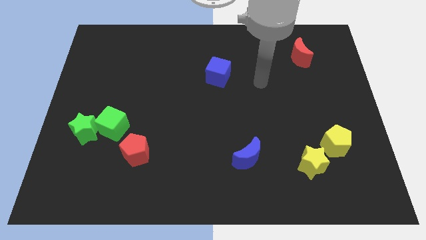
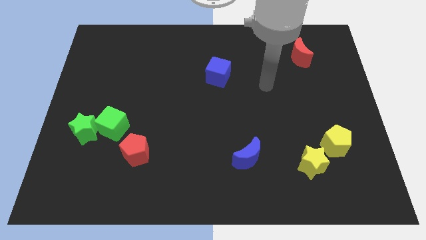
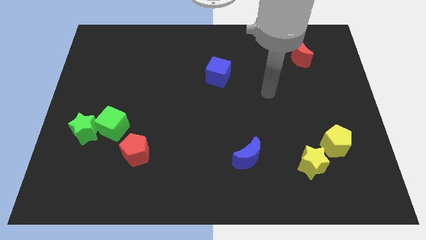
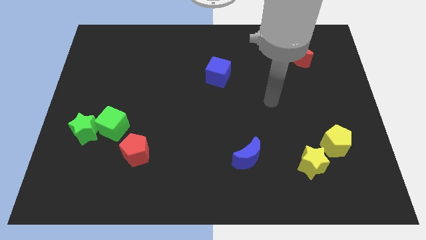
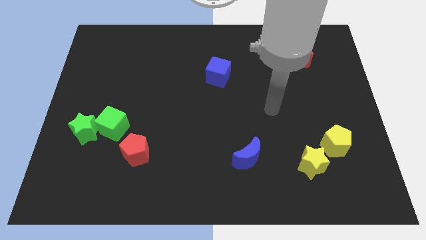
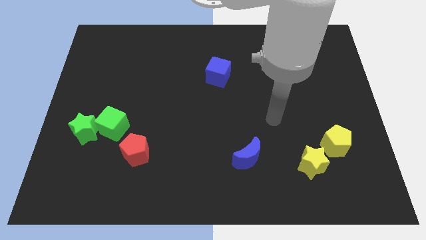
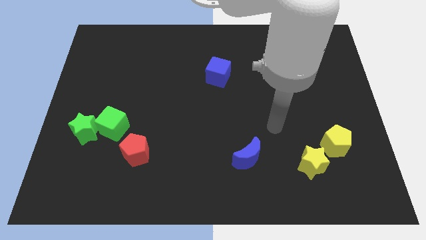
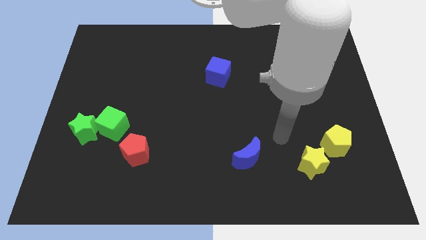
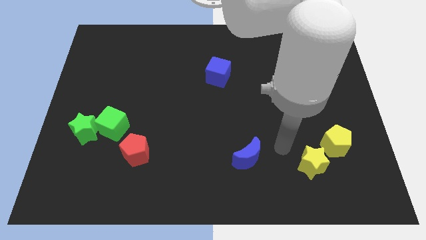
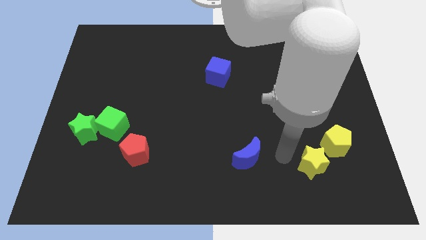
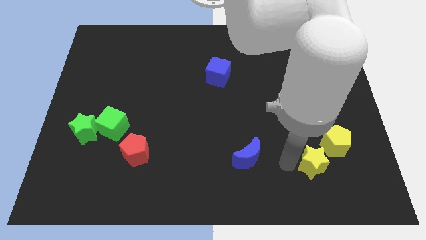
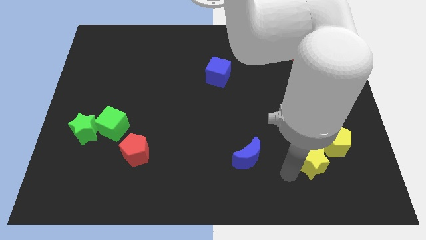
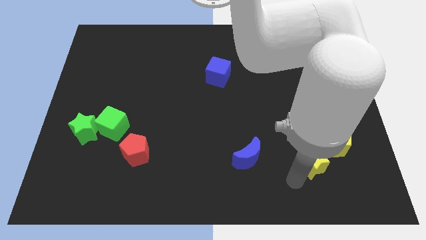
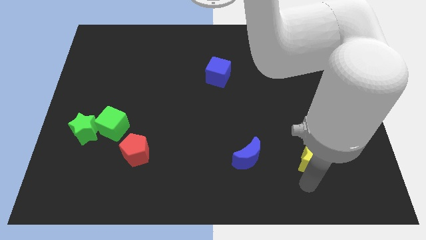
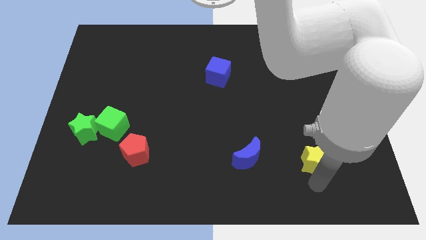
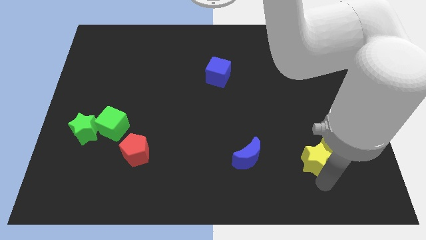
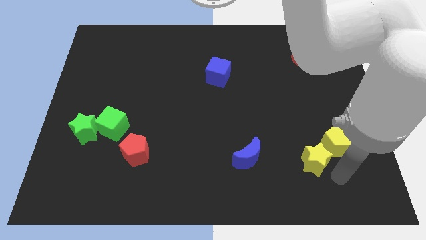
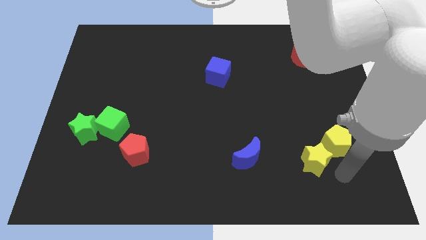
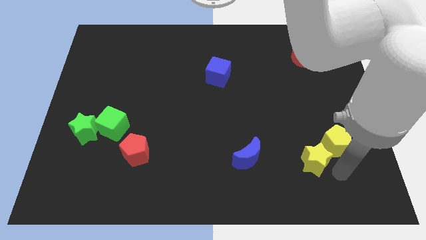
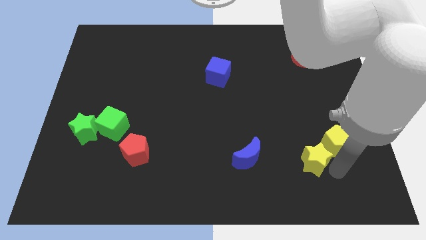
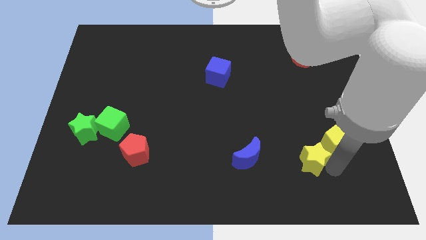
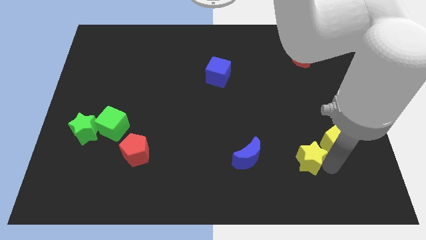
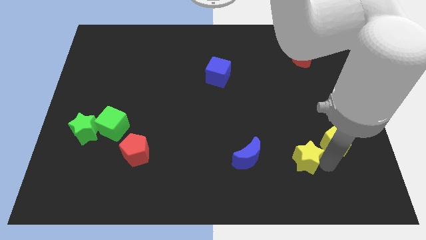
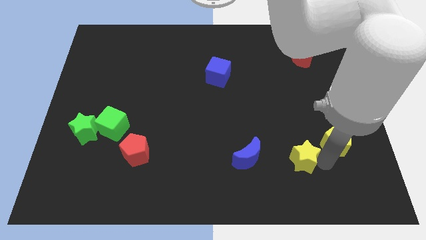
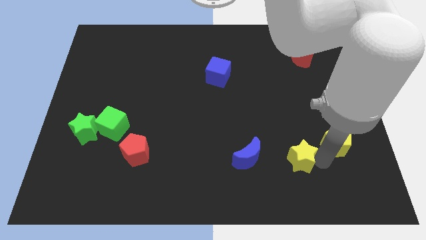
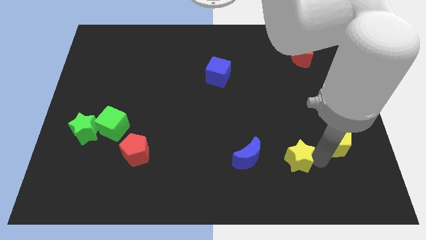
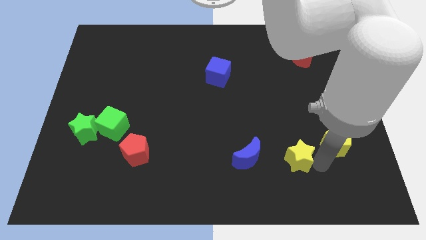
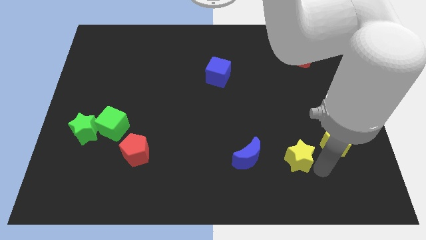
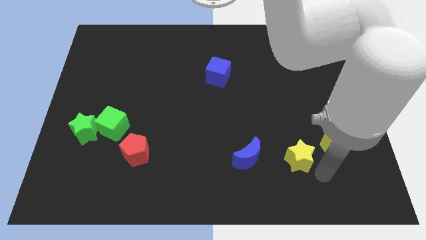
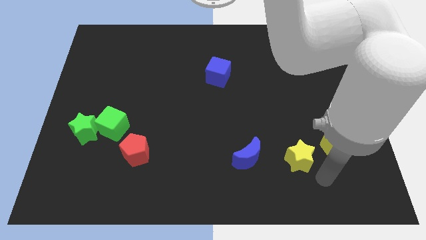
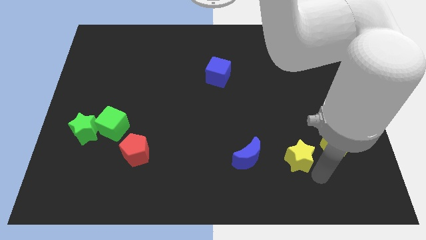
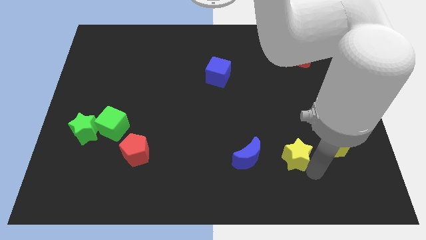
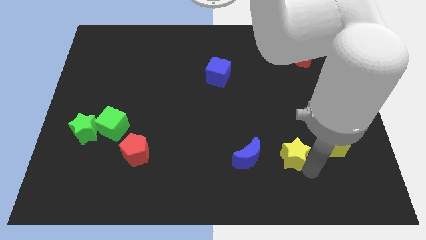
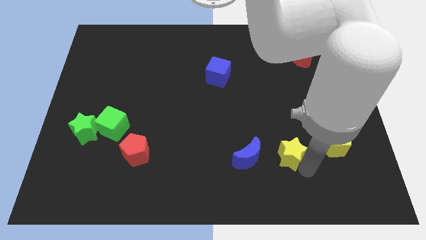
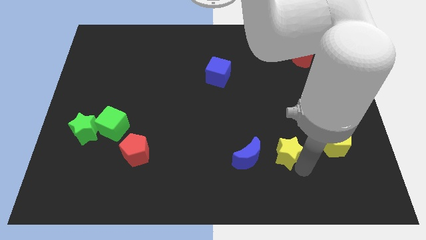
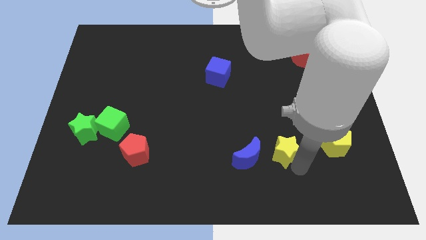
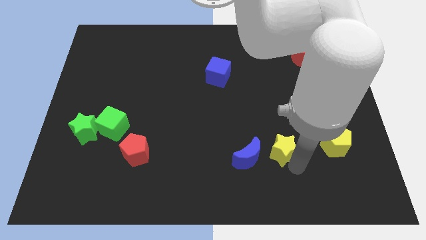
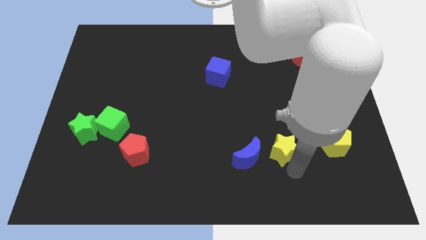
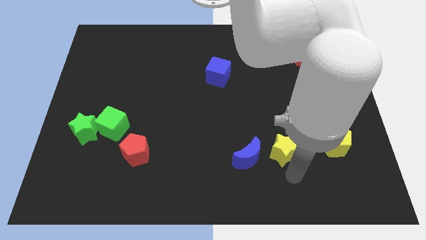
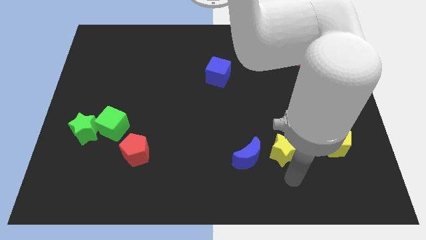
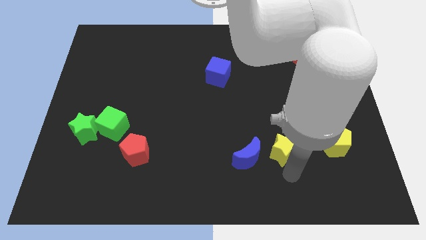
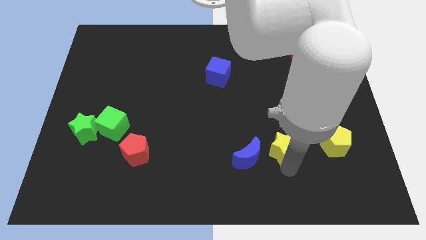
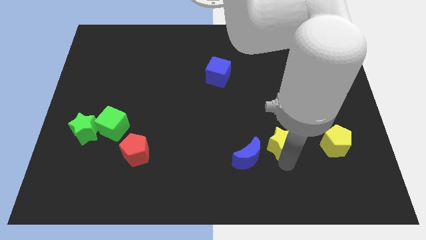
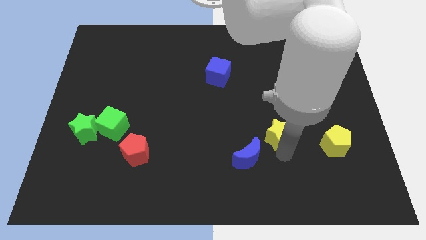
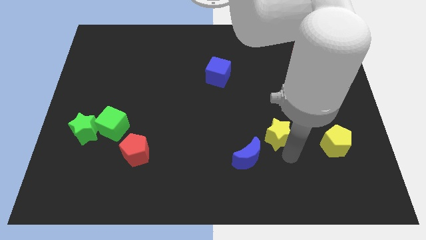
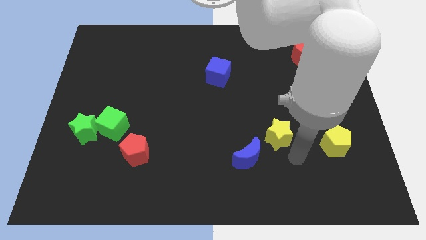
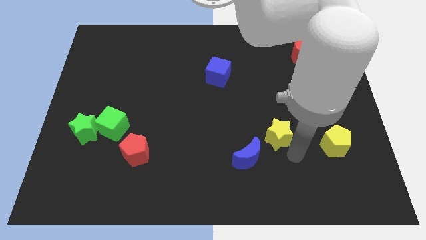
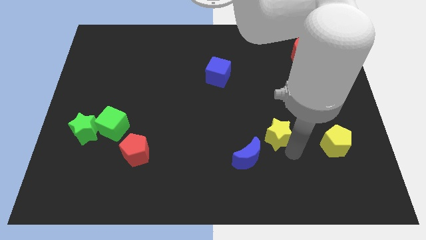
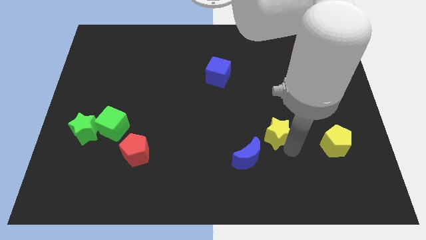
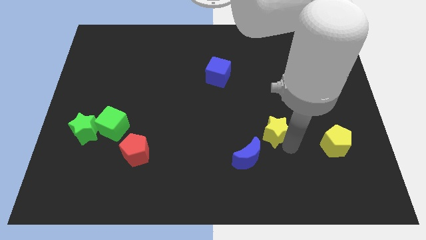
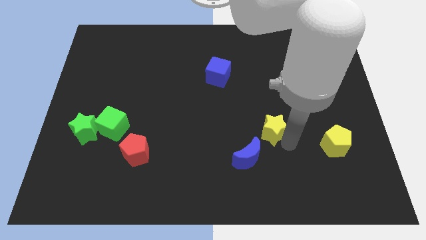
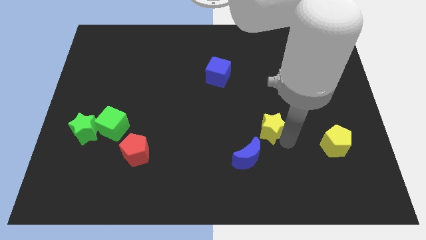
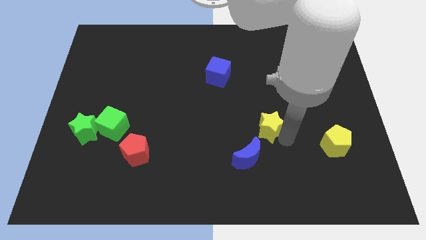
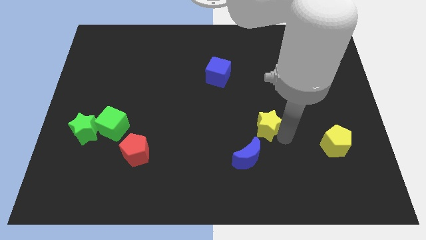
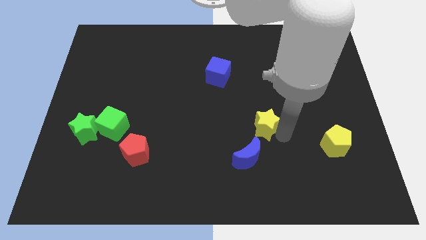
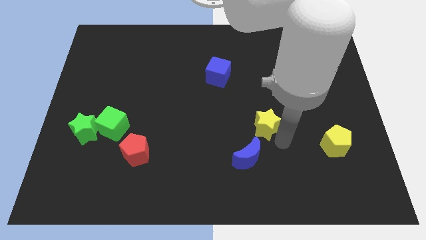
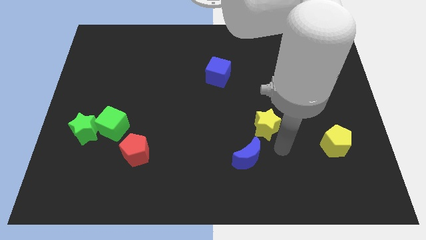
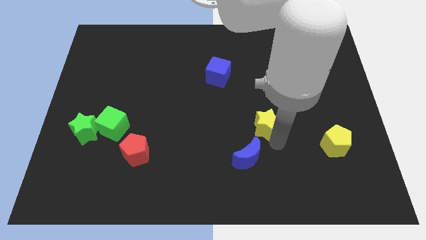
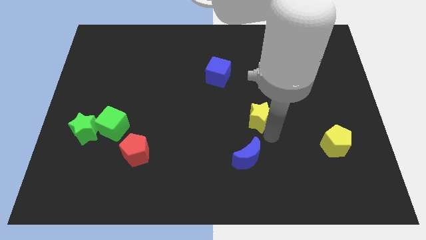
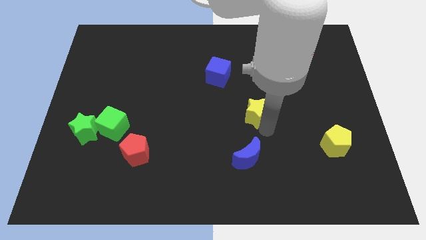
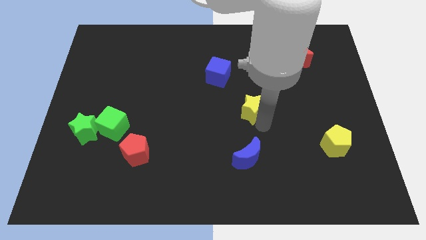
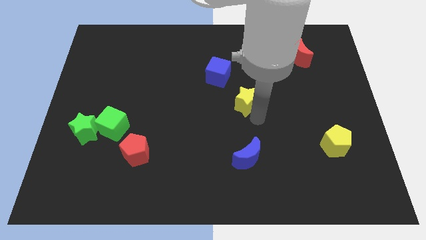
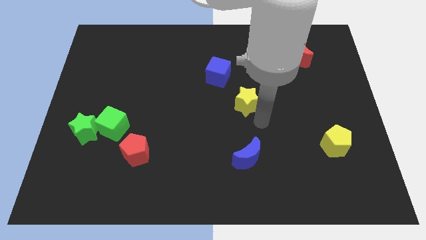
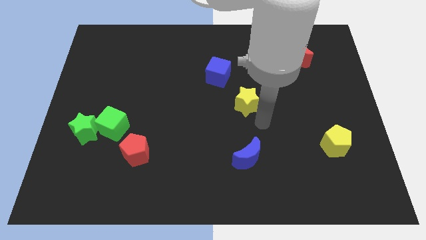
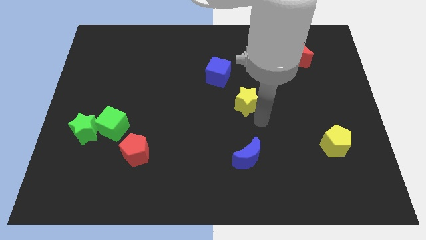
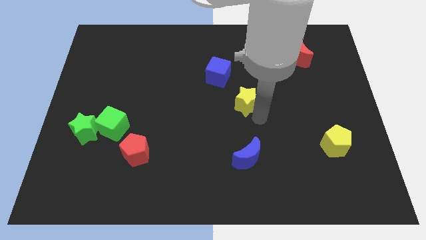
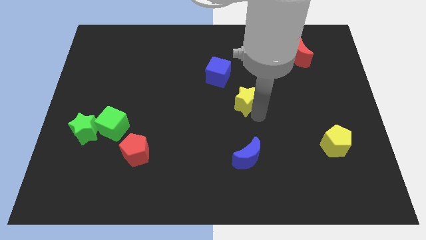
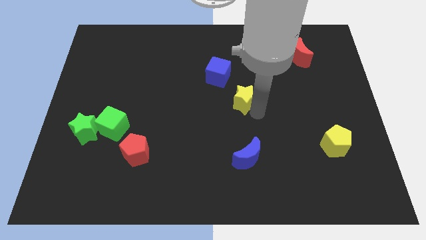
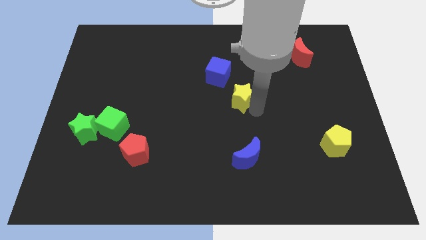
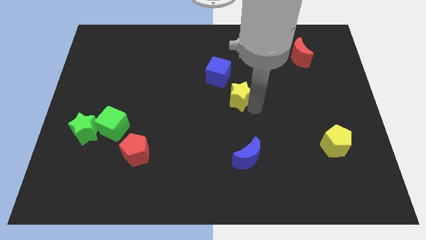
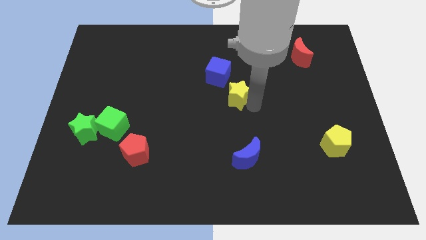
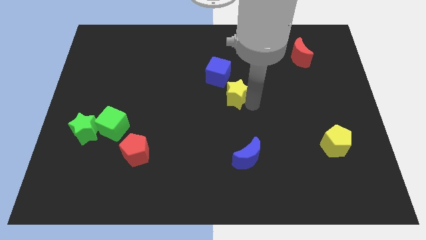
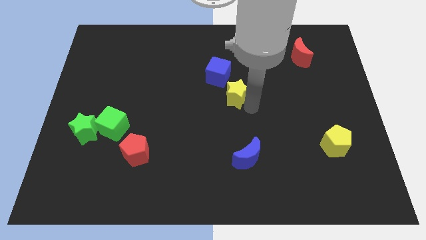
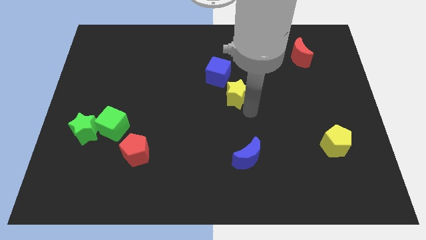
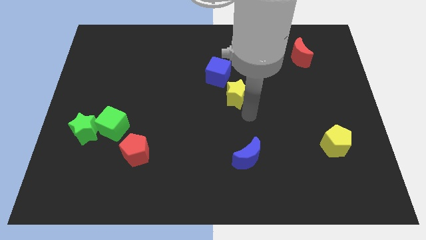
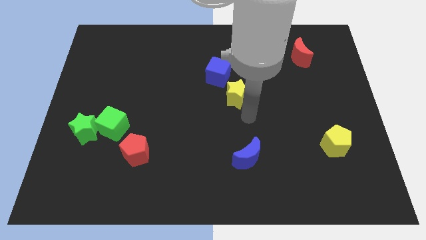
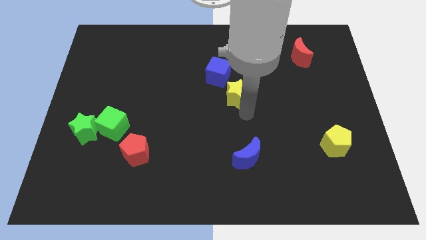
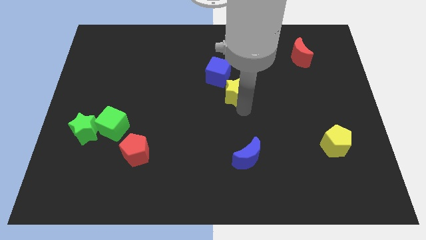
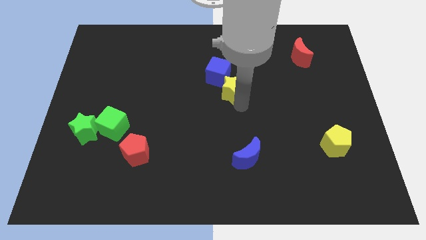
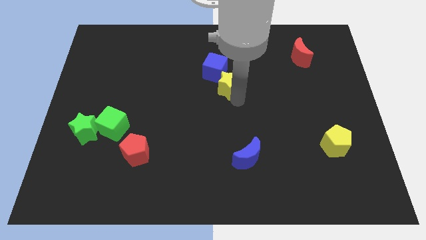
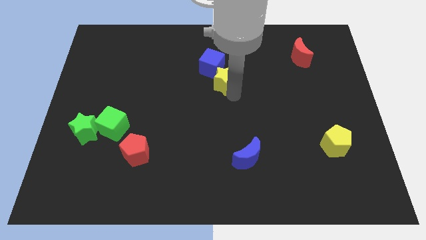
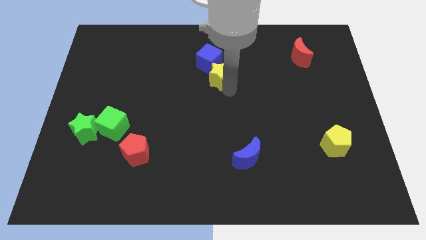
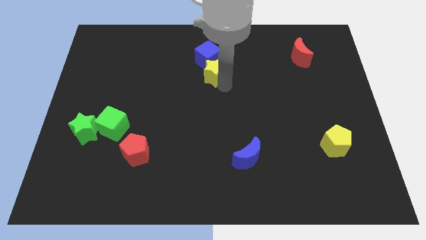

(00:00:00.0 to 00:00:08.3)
move the yellow star close to the blue cube
